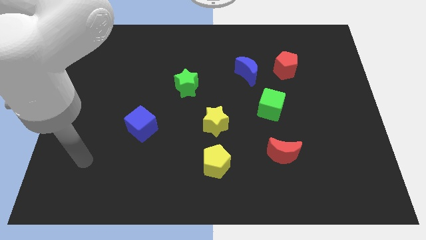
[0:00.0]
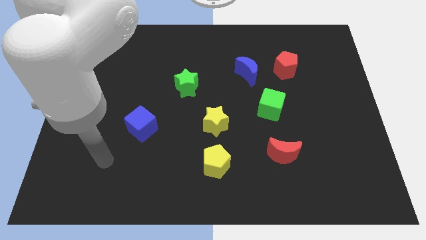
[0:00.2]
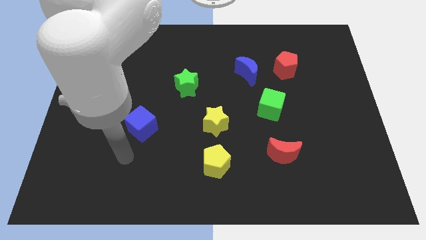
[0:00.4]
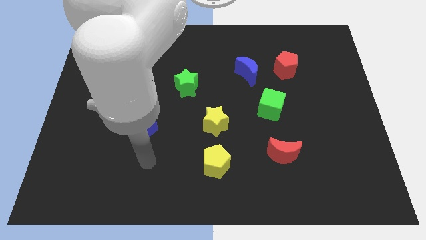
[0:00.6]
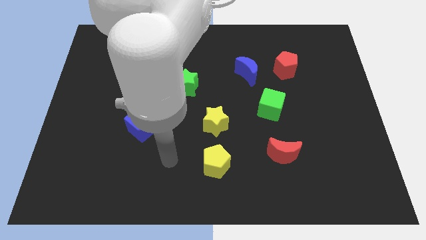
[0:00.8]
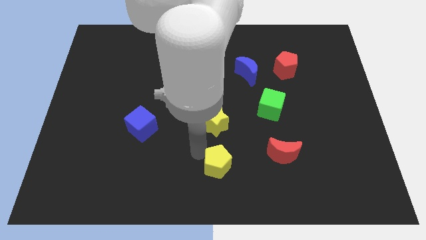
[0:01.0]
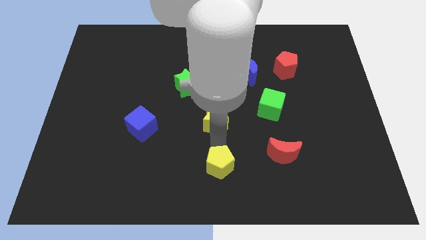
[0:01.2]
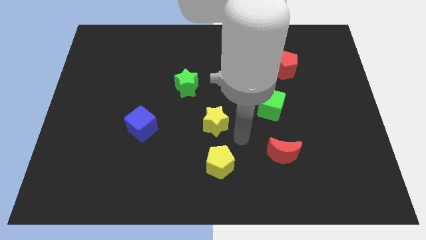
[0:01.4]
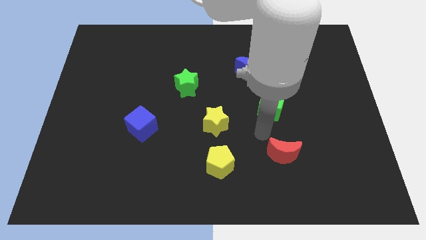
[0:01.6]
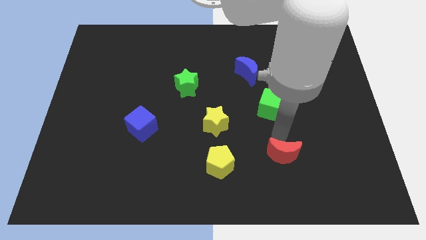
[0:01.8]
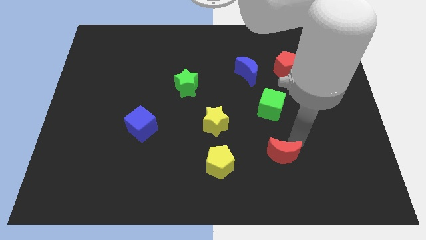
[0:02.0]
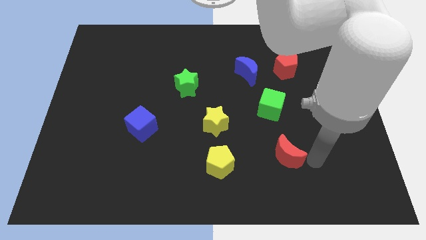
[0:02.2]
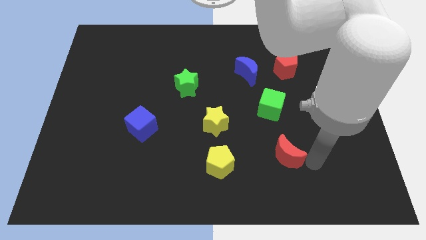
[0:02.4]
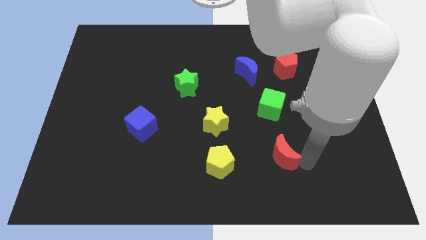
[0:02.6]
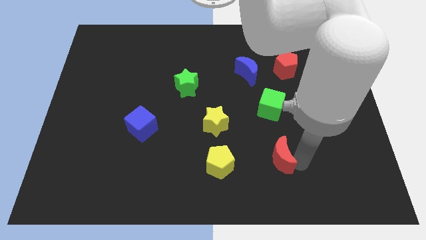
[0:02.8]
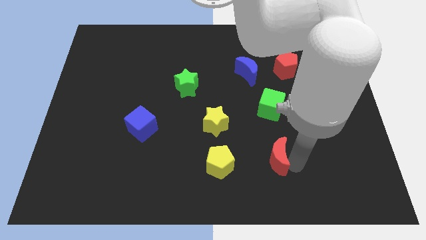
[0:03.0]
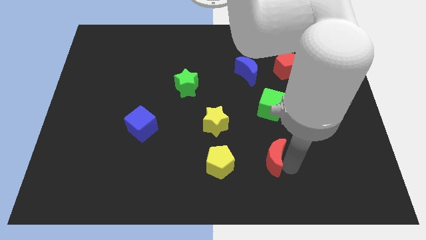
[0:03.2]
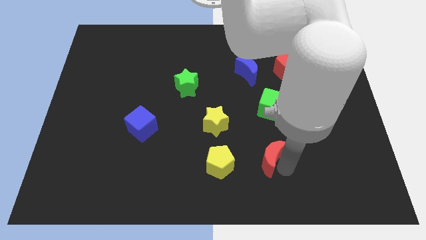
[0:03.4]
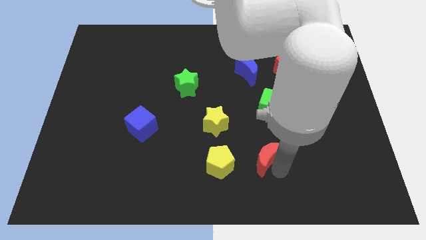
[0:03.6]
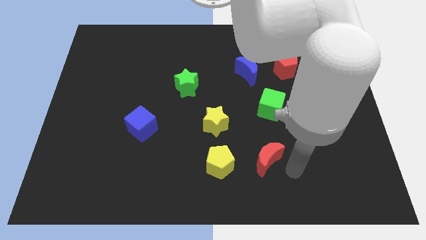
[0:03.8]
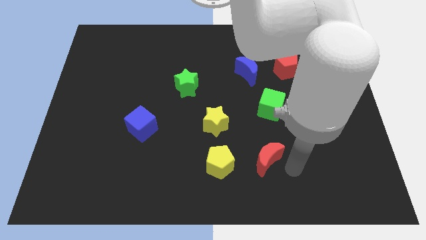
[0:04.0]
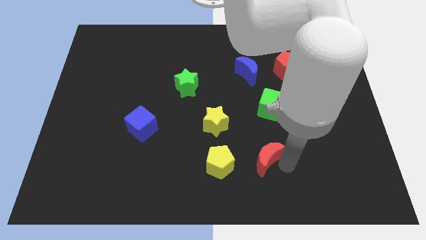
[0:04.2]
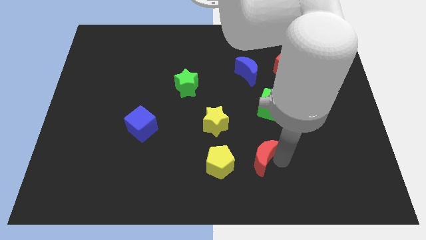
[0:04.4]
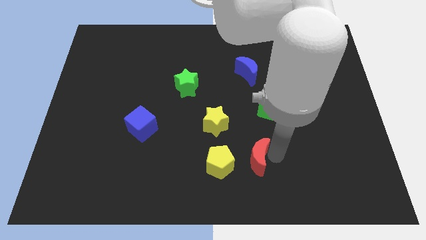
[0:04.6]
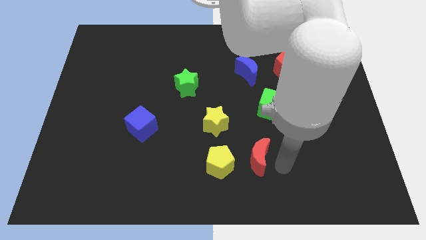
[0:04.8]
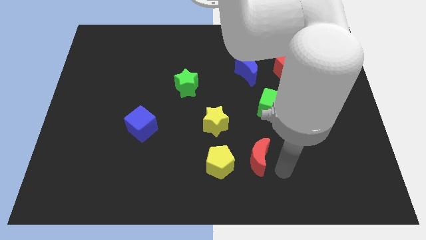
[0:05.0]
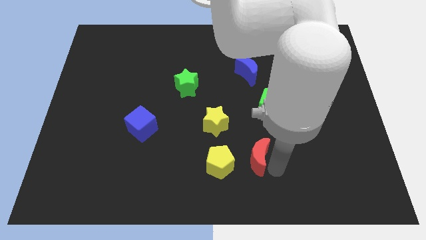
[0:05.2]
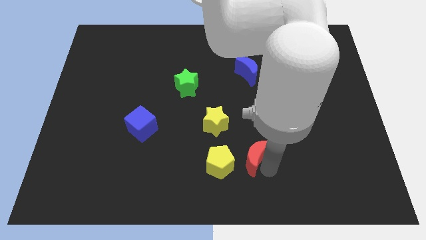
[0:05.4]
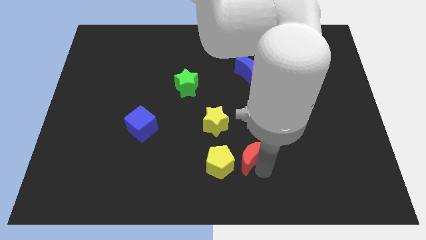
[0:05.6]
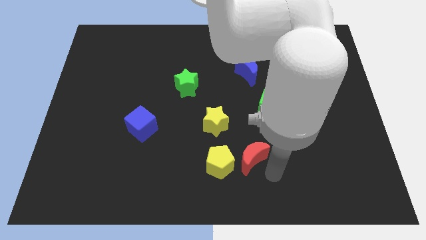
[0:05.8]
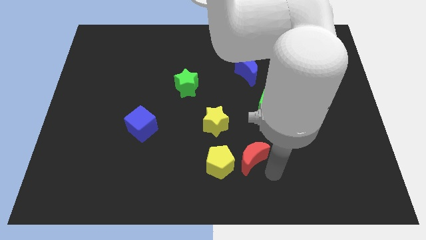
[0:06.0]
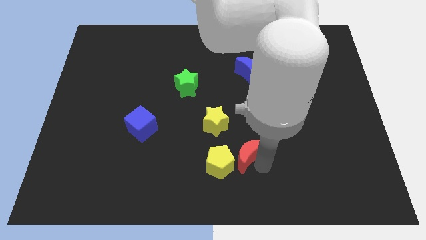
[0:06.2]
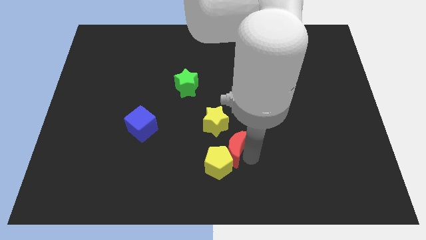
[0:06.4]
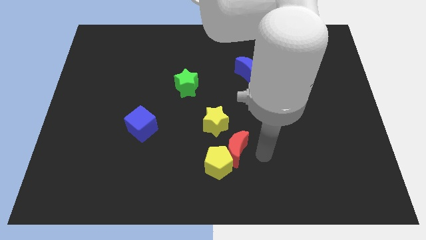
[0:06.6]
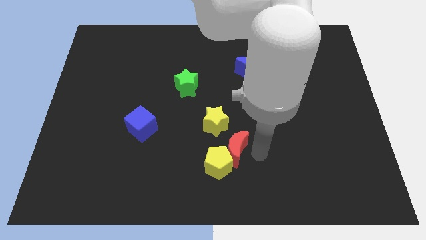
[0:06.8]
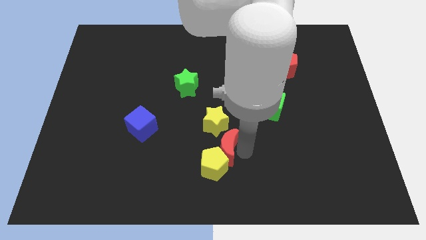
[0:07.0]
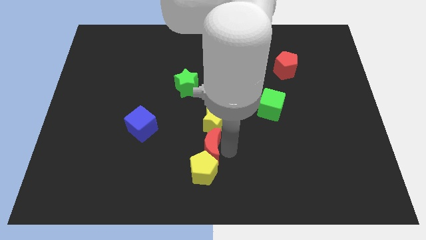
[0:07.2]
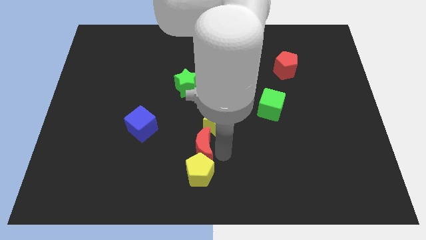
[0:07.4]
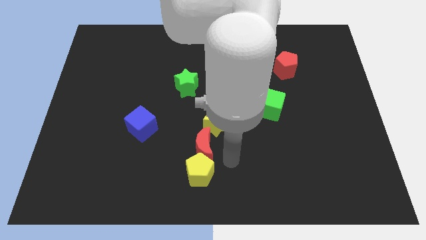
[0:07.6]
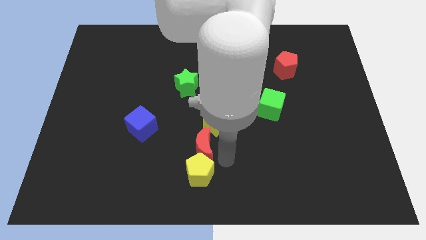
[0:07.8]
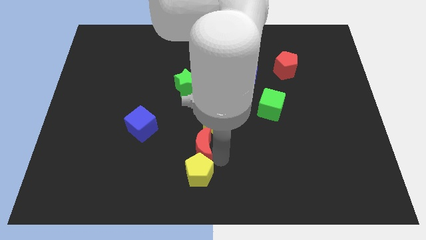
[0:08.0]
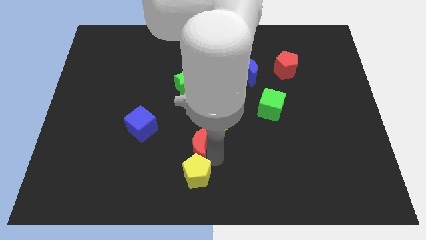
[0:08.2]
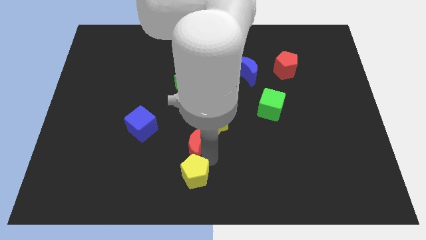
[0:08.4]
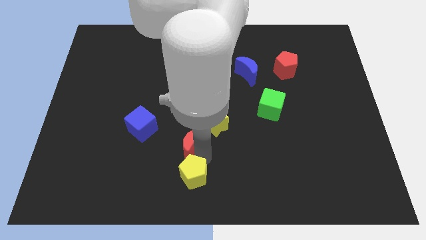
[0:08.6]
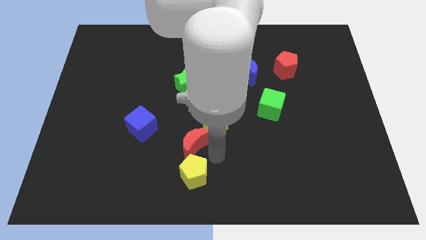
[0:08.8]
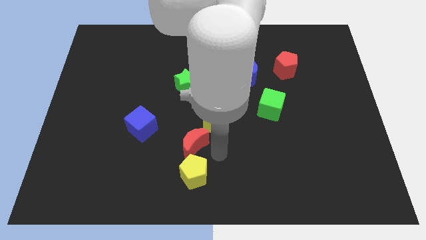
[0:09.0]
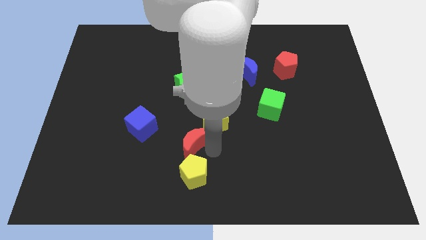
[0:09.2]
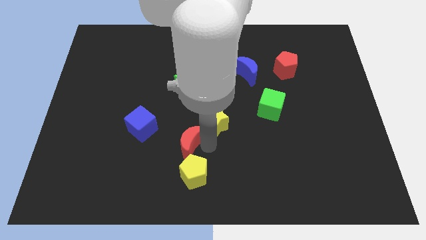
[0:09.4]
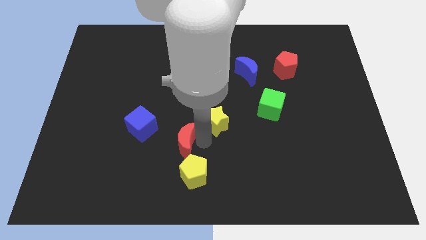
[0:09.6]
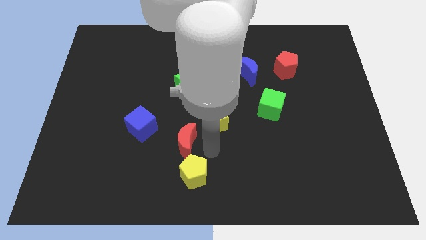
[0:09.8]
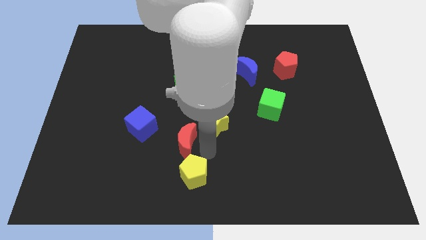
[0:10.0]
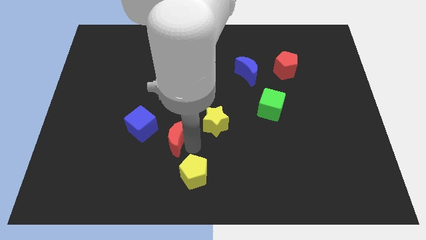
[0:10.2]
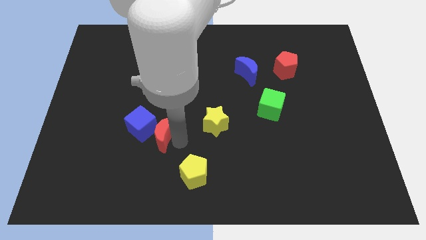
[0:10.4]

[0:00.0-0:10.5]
put the red moon close to the blue cube

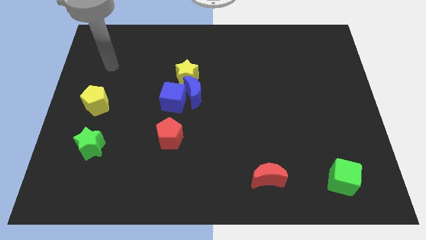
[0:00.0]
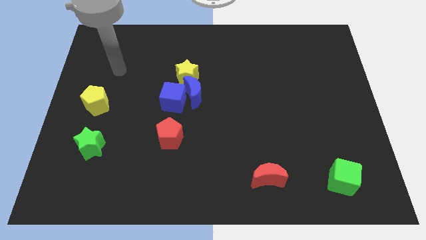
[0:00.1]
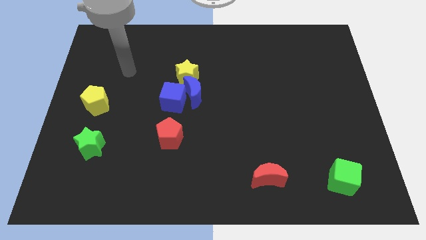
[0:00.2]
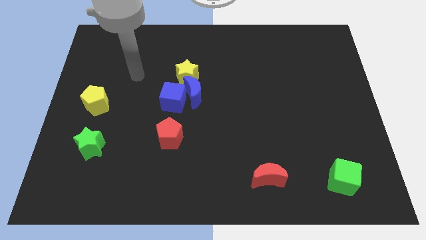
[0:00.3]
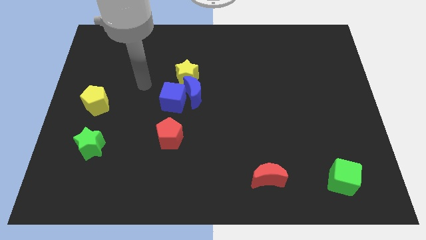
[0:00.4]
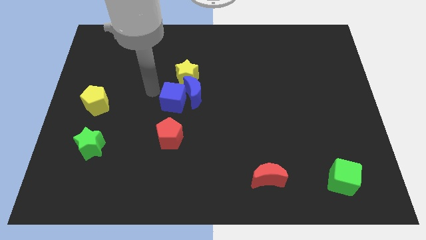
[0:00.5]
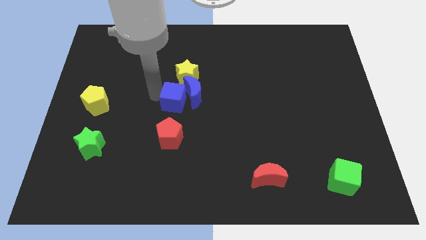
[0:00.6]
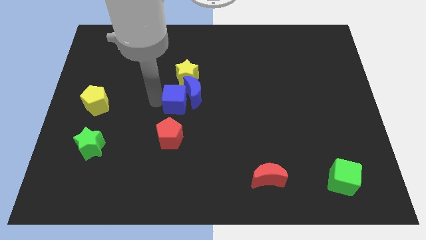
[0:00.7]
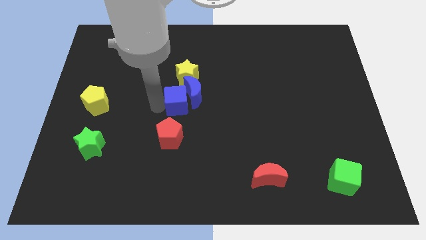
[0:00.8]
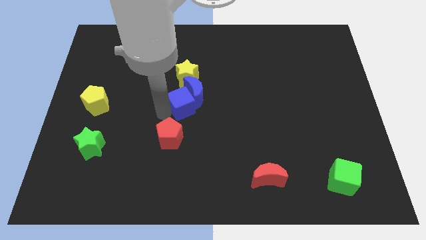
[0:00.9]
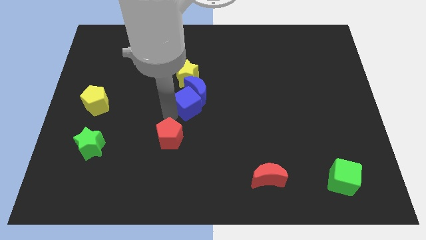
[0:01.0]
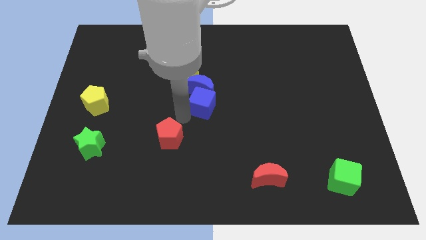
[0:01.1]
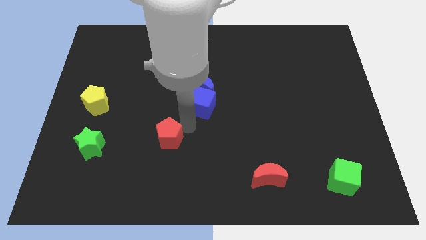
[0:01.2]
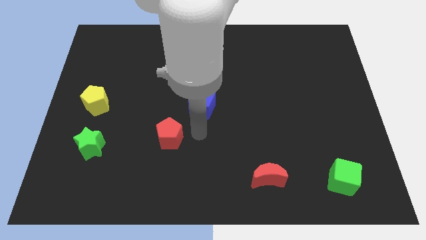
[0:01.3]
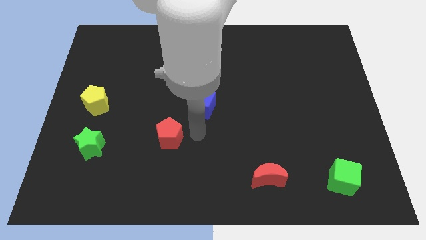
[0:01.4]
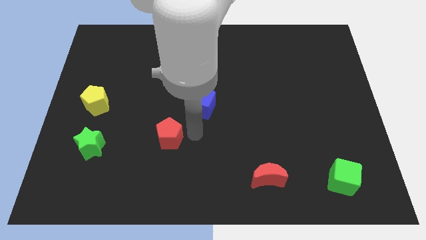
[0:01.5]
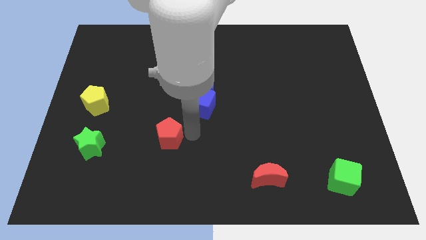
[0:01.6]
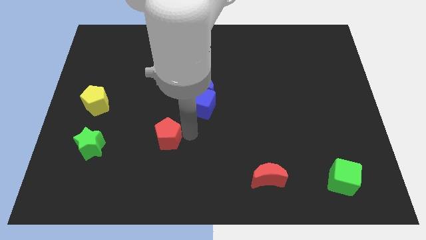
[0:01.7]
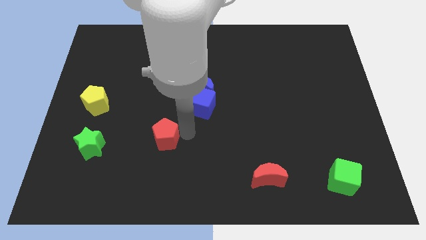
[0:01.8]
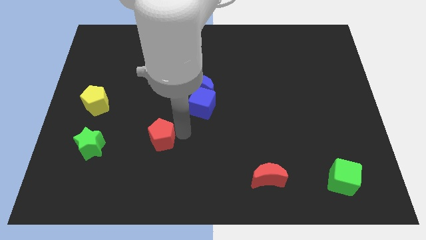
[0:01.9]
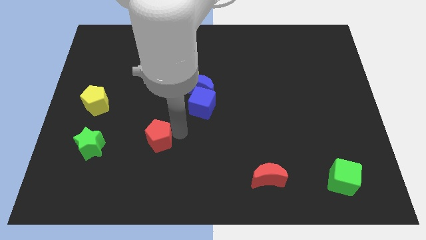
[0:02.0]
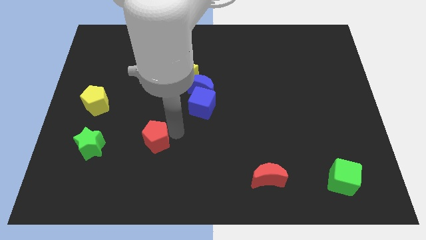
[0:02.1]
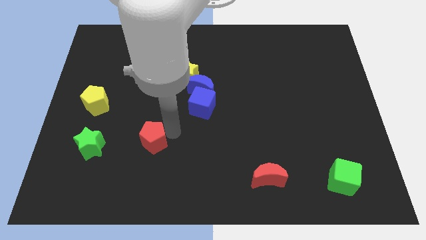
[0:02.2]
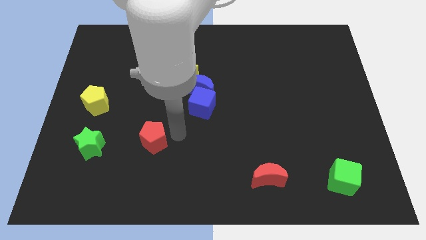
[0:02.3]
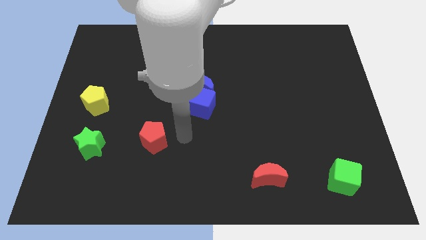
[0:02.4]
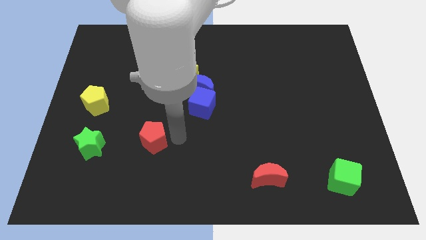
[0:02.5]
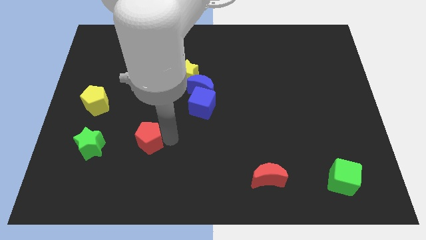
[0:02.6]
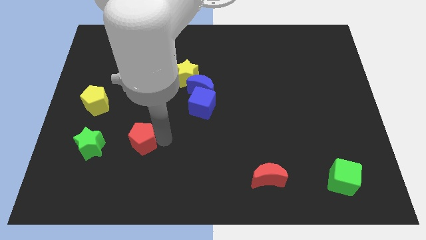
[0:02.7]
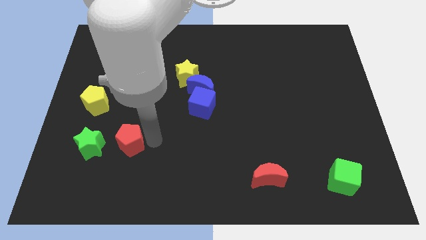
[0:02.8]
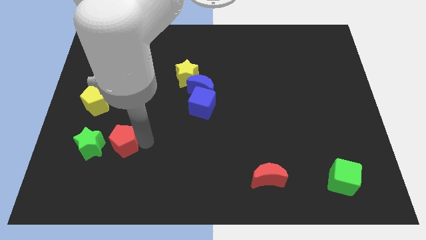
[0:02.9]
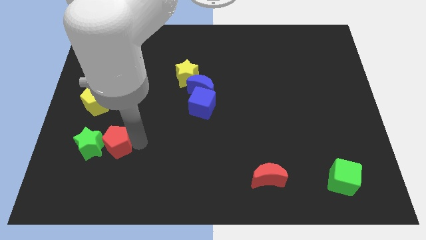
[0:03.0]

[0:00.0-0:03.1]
put the red pentagon close to the green star
